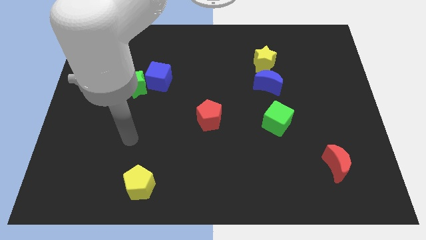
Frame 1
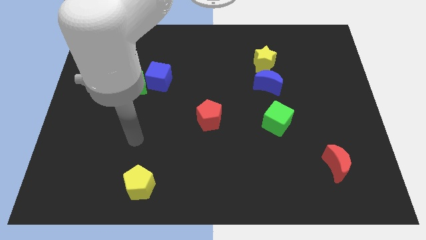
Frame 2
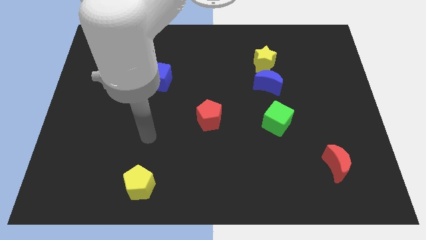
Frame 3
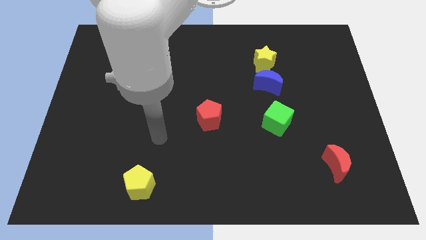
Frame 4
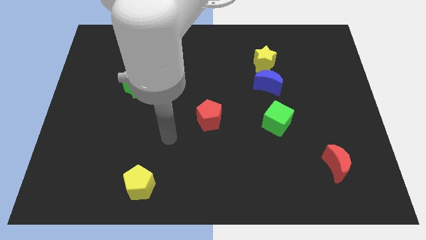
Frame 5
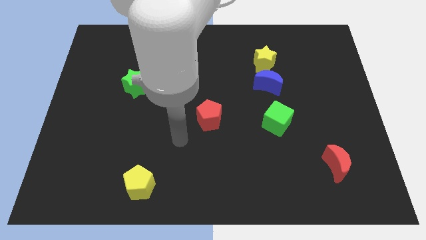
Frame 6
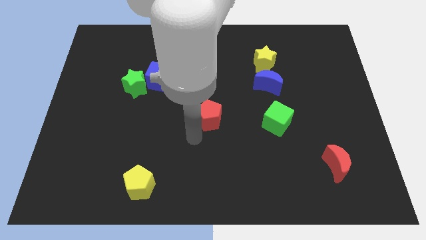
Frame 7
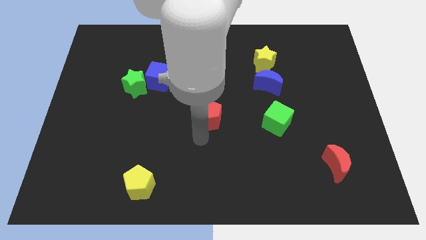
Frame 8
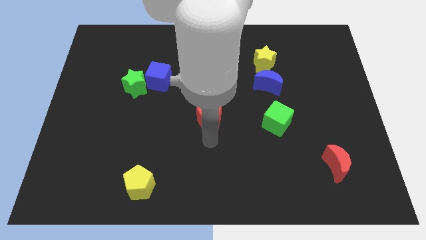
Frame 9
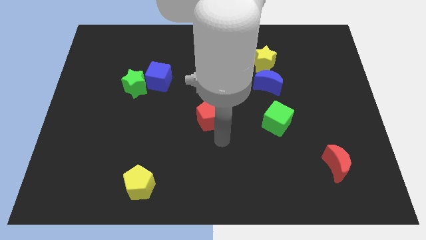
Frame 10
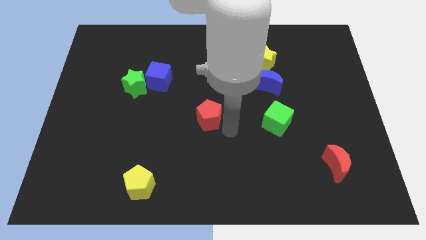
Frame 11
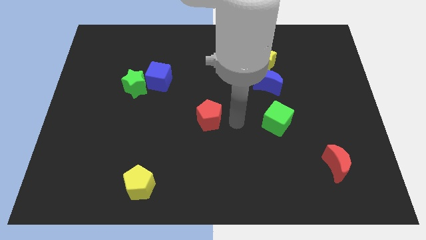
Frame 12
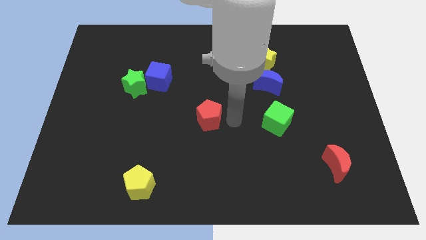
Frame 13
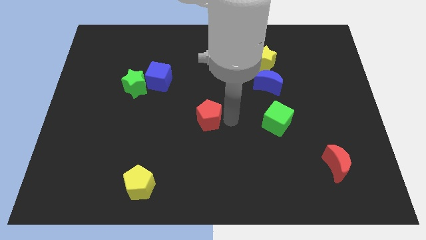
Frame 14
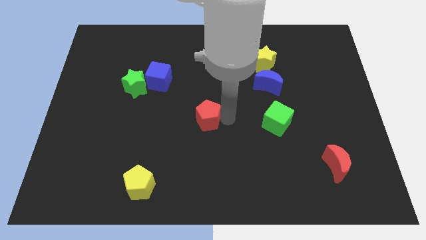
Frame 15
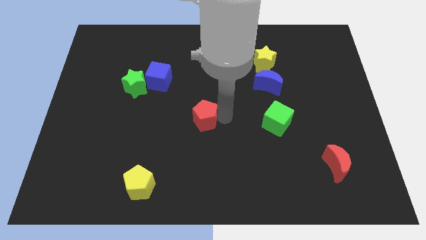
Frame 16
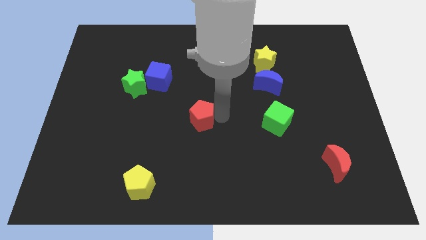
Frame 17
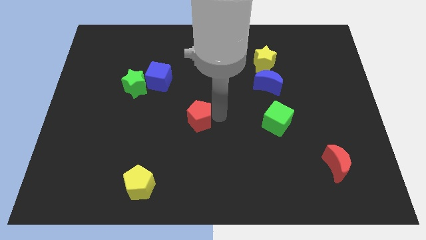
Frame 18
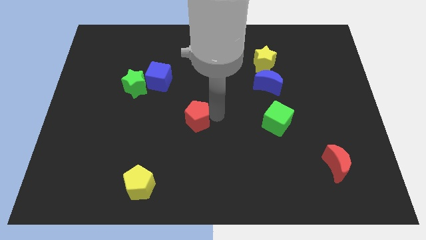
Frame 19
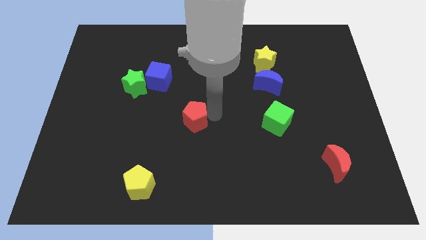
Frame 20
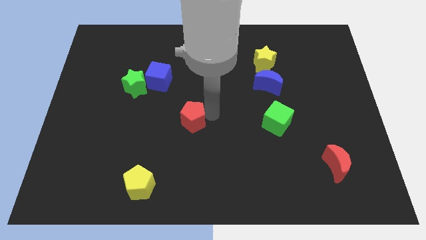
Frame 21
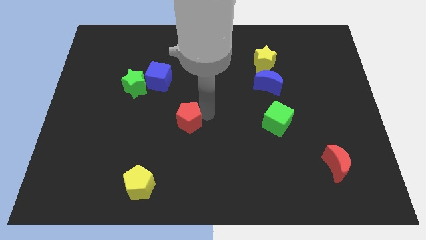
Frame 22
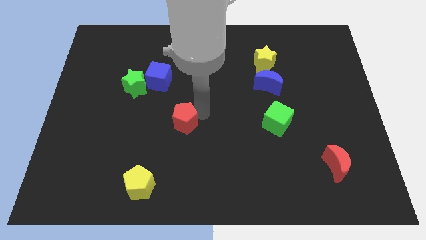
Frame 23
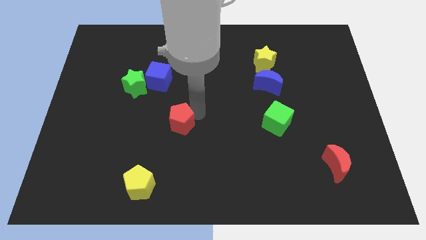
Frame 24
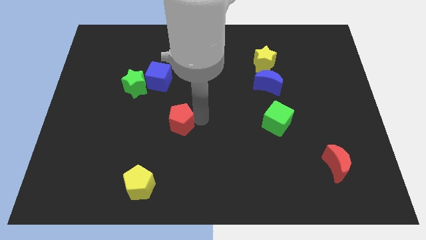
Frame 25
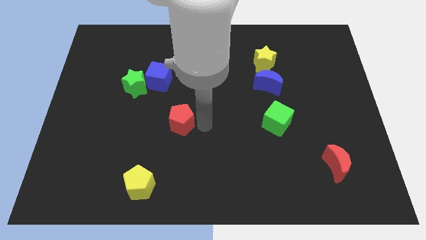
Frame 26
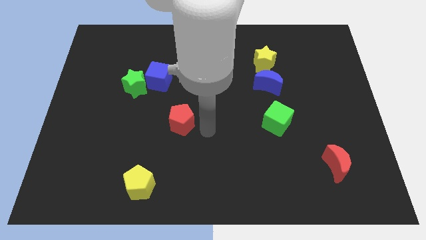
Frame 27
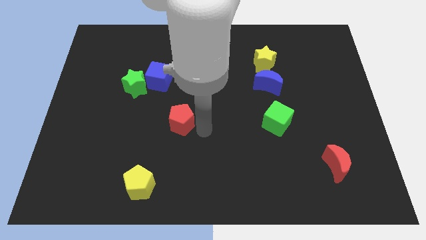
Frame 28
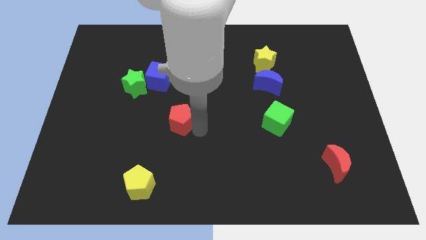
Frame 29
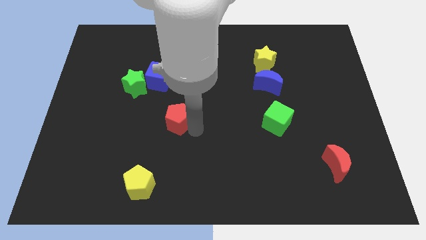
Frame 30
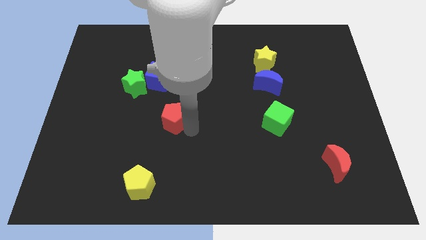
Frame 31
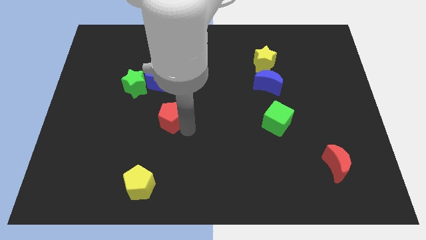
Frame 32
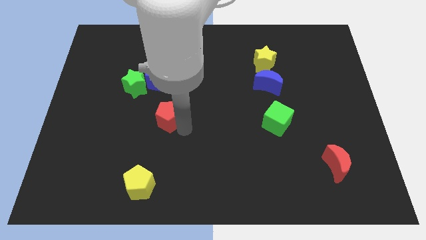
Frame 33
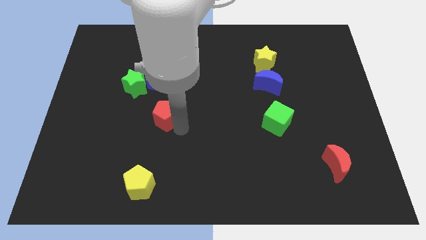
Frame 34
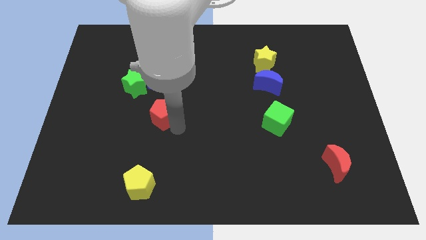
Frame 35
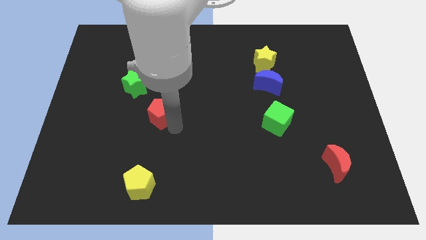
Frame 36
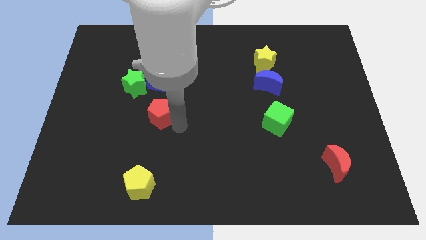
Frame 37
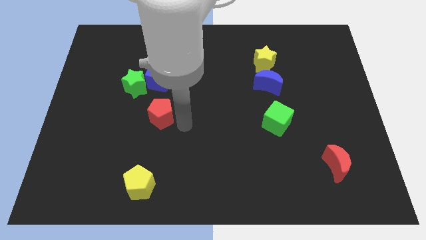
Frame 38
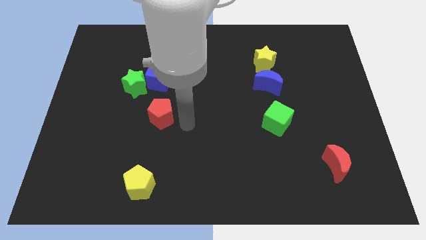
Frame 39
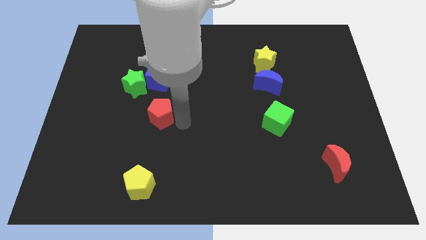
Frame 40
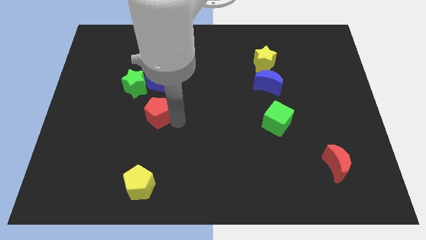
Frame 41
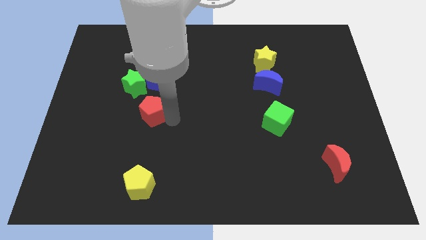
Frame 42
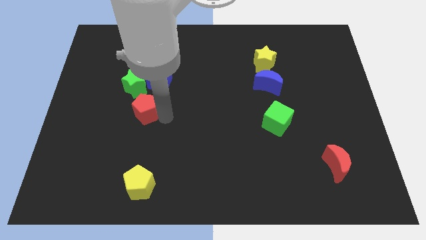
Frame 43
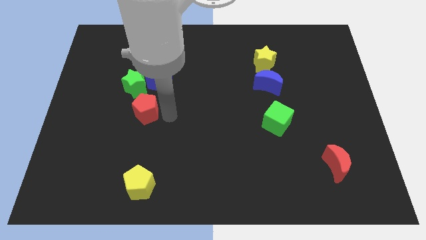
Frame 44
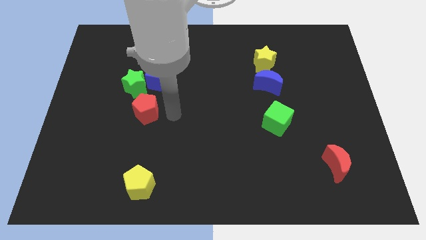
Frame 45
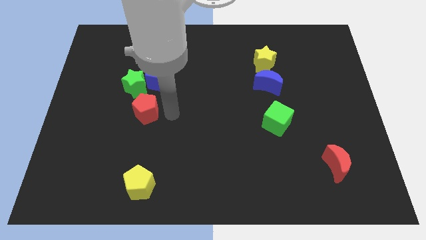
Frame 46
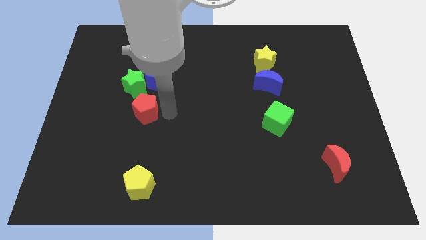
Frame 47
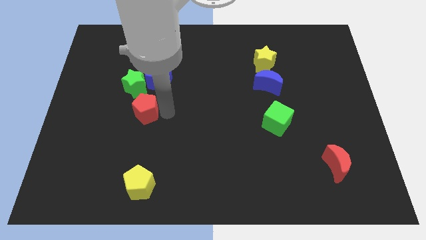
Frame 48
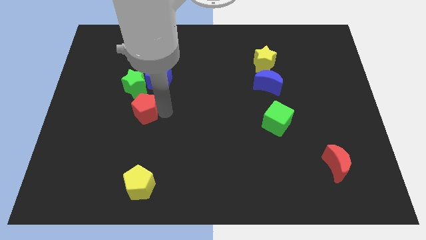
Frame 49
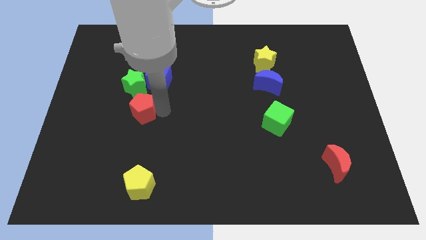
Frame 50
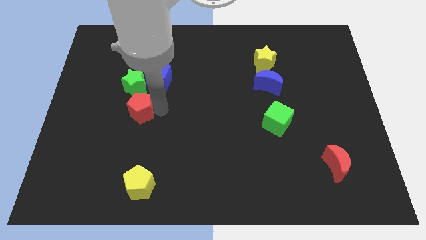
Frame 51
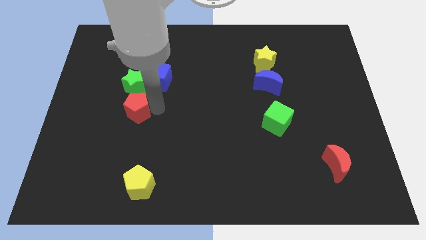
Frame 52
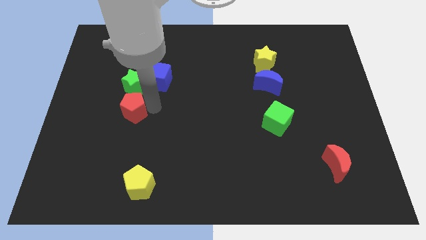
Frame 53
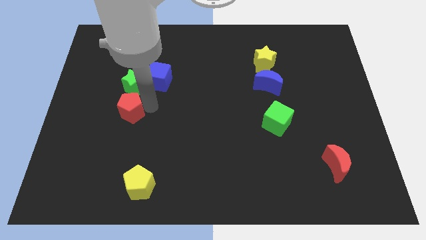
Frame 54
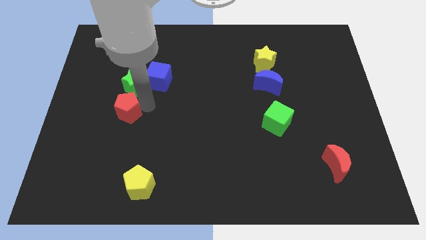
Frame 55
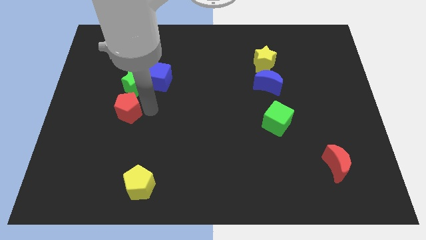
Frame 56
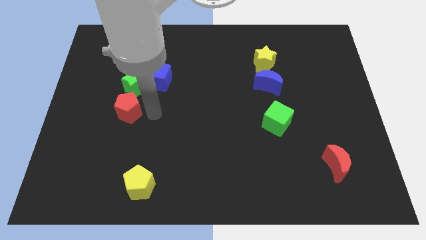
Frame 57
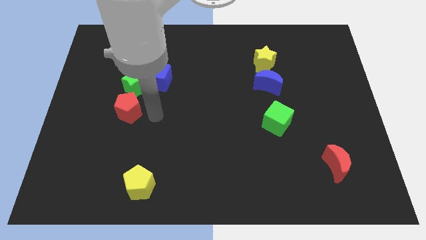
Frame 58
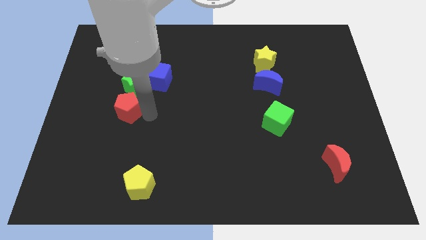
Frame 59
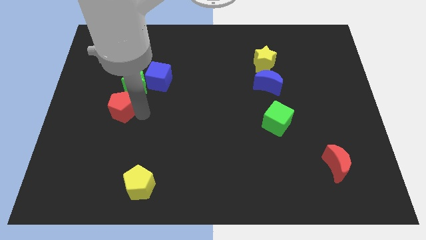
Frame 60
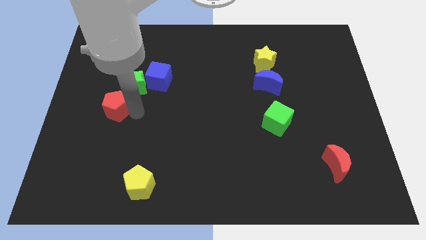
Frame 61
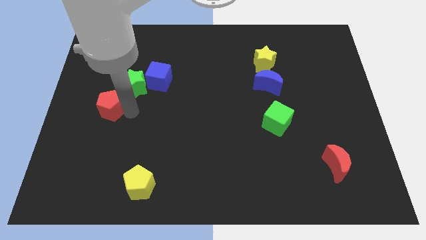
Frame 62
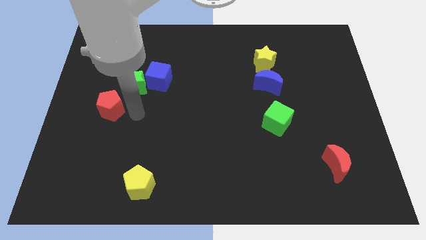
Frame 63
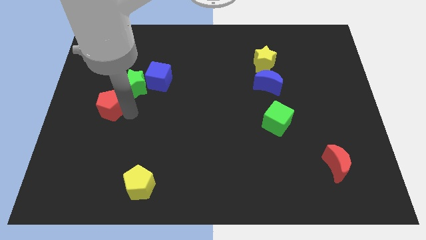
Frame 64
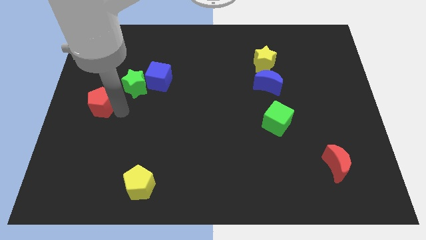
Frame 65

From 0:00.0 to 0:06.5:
slide the red pentagon to the left side
